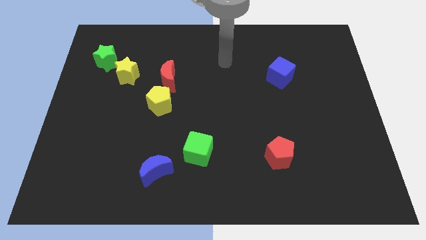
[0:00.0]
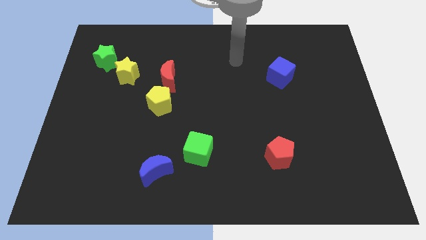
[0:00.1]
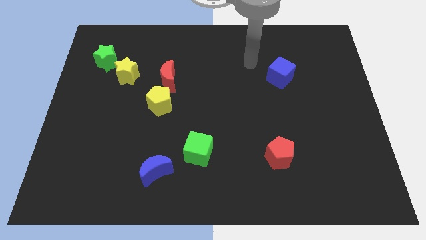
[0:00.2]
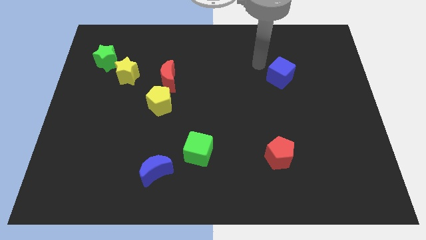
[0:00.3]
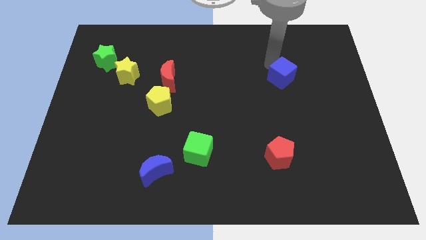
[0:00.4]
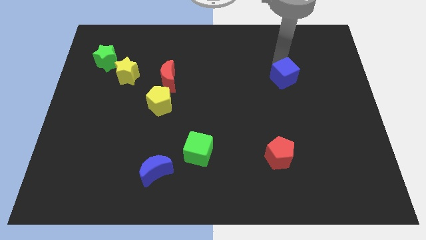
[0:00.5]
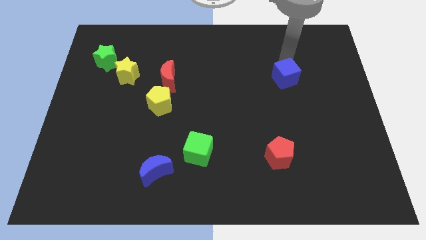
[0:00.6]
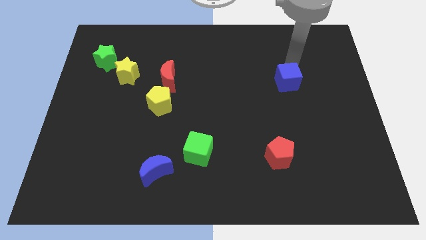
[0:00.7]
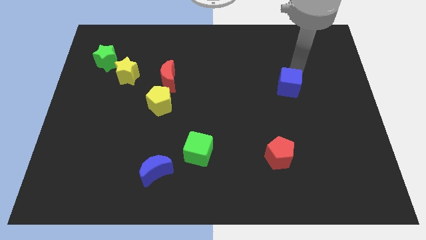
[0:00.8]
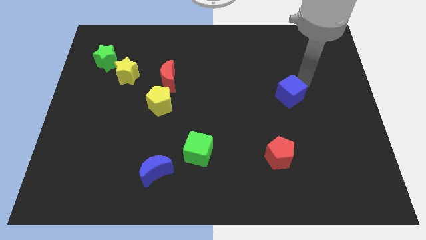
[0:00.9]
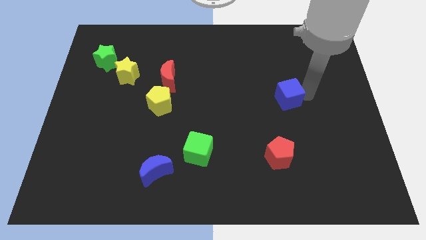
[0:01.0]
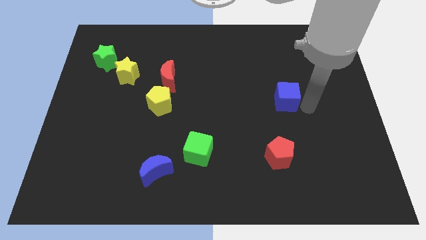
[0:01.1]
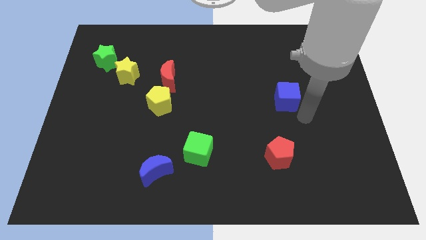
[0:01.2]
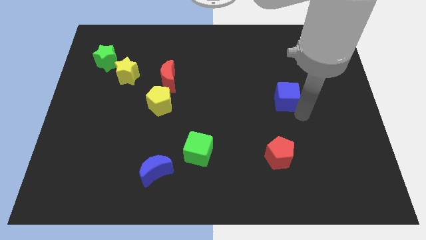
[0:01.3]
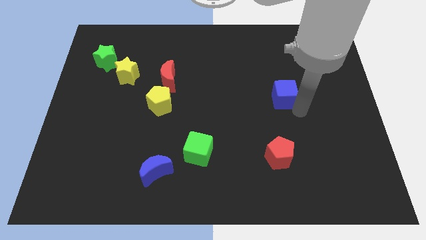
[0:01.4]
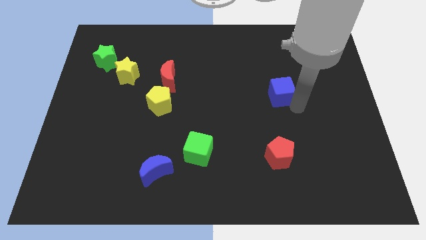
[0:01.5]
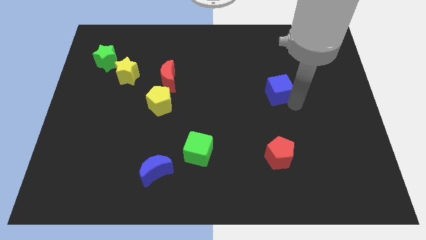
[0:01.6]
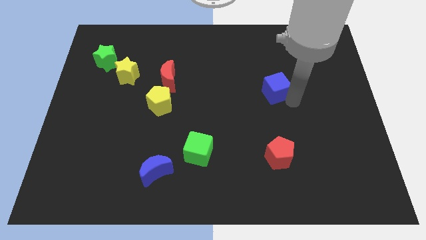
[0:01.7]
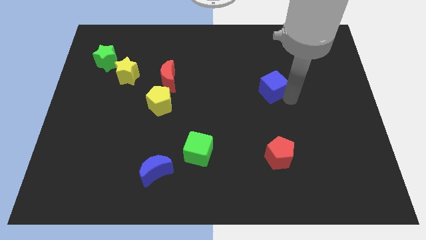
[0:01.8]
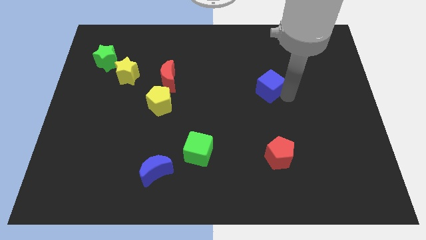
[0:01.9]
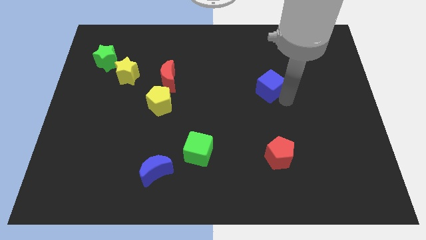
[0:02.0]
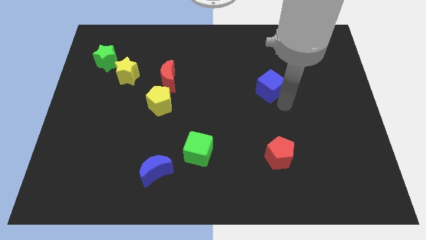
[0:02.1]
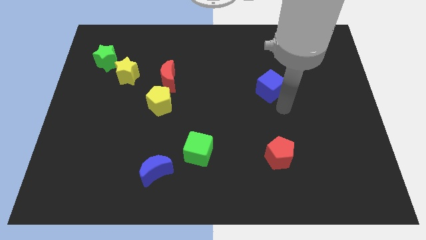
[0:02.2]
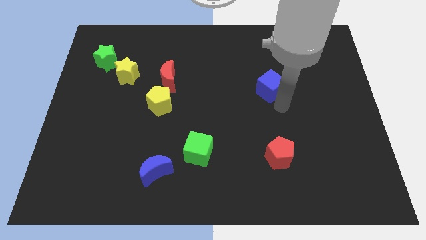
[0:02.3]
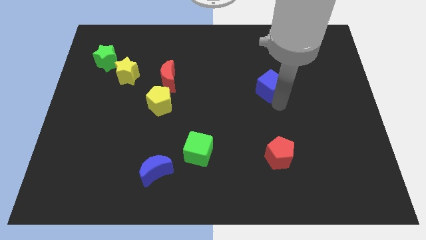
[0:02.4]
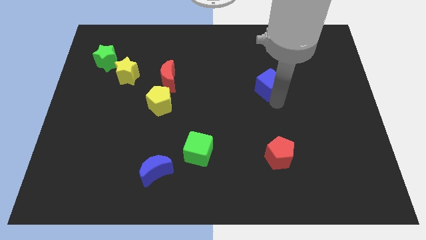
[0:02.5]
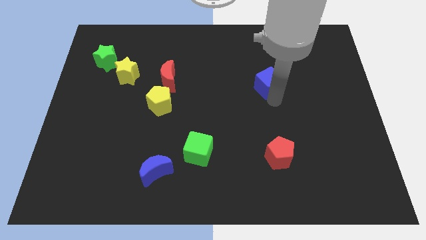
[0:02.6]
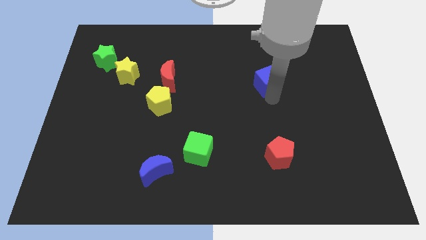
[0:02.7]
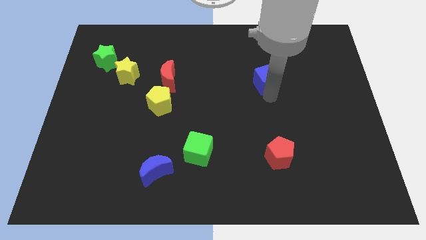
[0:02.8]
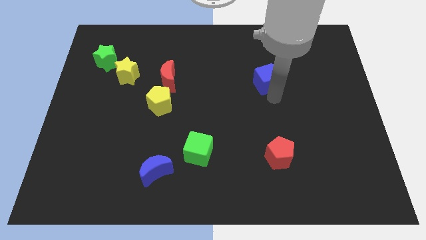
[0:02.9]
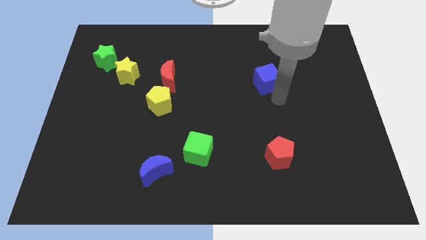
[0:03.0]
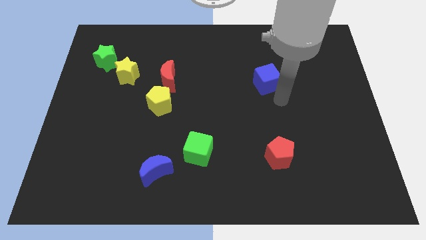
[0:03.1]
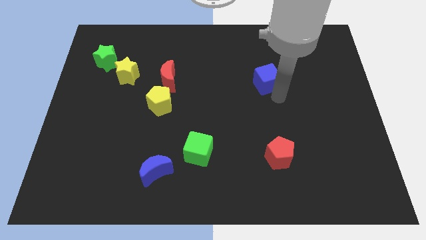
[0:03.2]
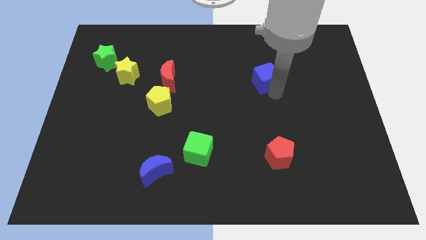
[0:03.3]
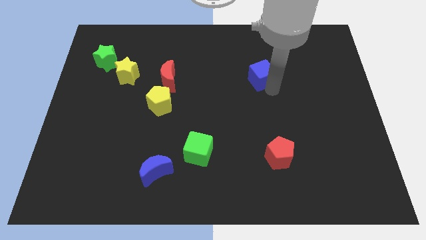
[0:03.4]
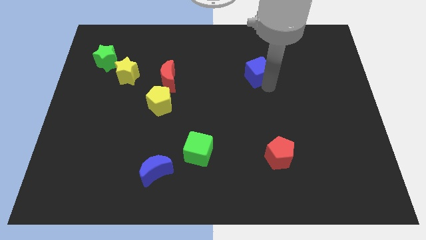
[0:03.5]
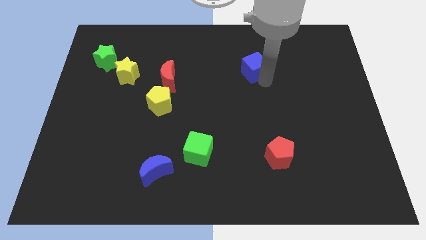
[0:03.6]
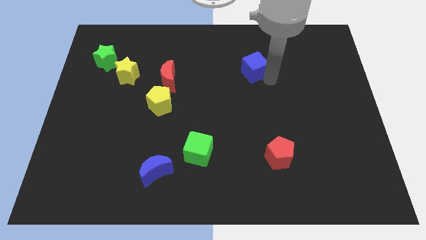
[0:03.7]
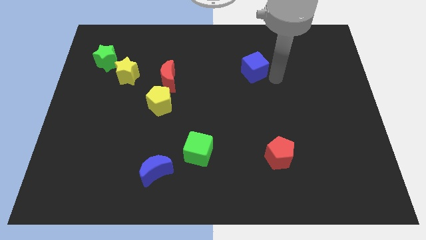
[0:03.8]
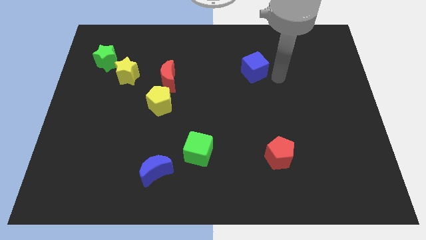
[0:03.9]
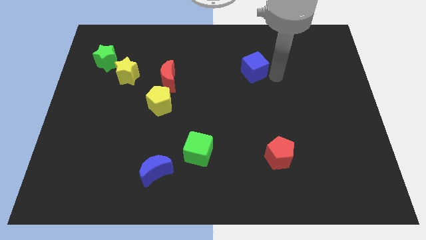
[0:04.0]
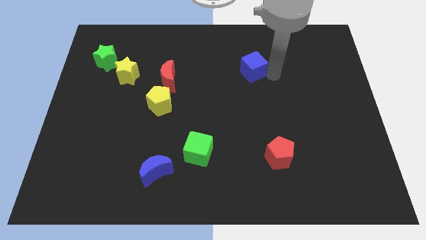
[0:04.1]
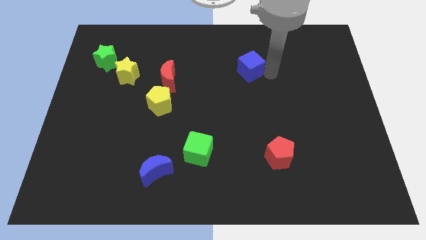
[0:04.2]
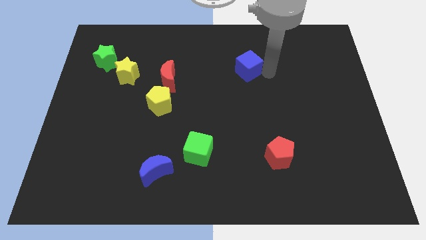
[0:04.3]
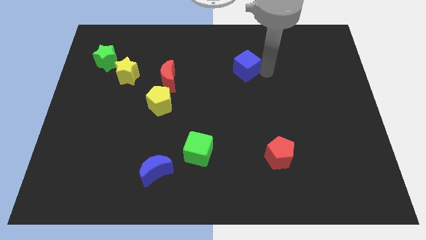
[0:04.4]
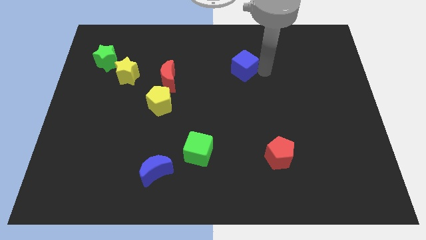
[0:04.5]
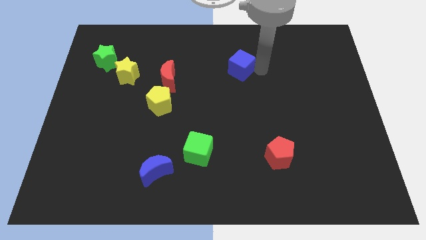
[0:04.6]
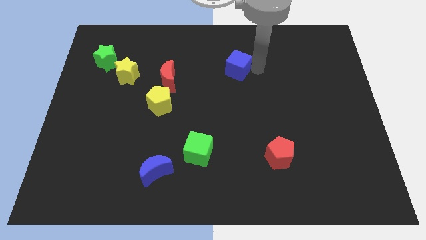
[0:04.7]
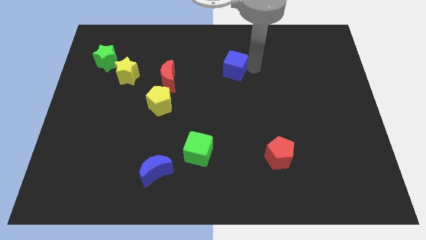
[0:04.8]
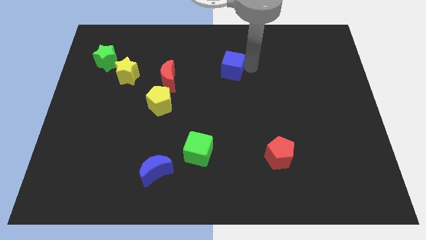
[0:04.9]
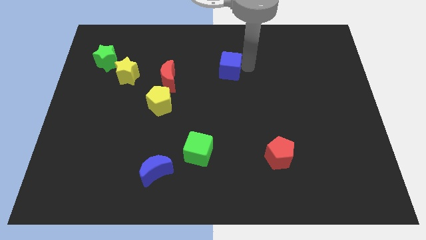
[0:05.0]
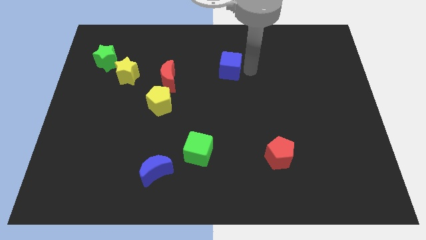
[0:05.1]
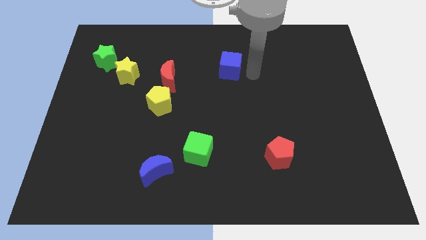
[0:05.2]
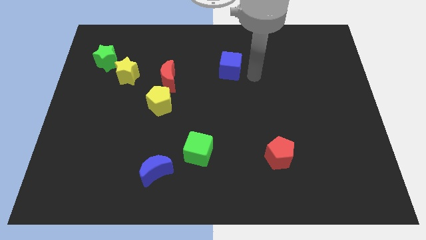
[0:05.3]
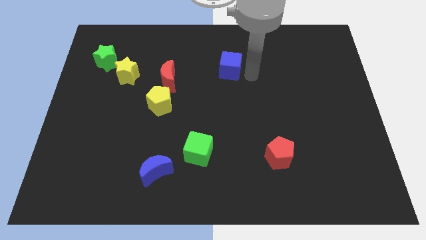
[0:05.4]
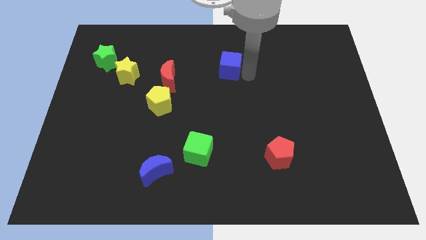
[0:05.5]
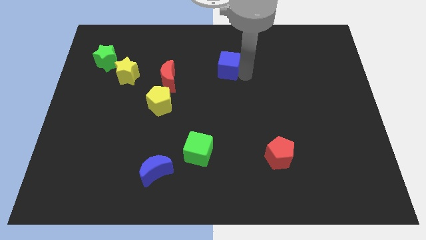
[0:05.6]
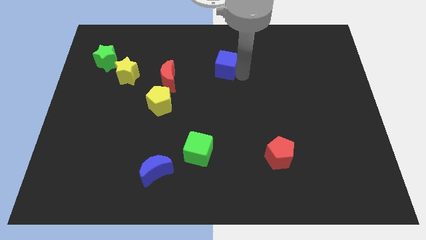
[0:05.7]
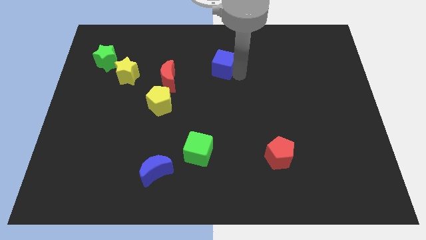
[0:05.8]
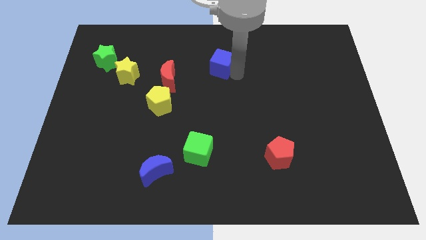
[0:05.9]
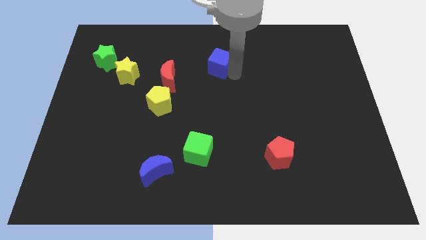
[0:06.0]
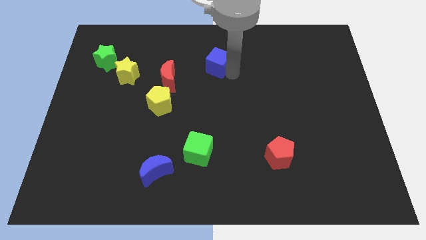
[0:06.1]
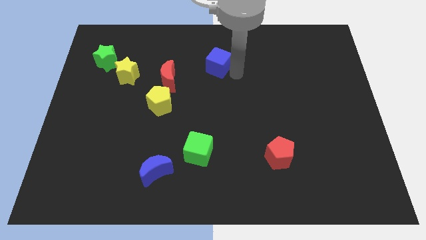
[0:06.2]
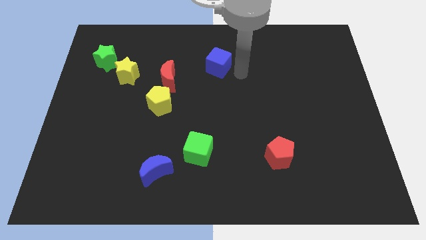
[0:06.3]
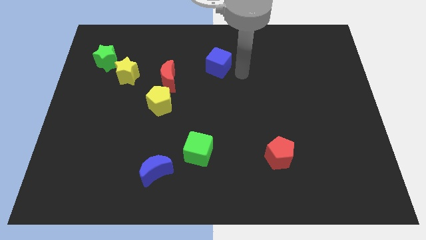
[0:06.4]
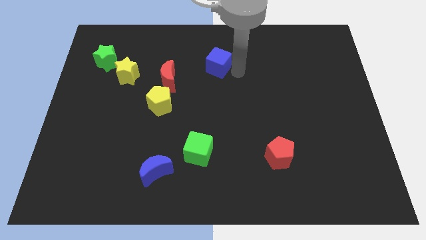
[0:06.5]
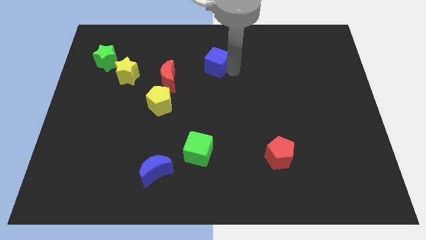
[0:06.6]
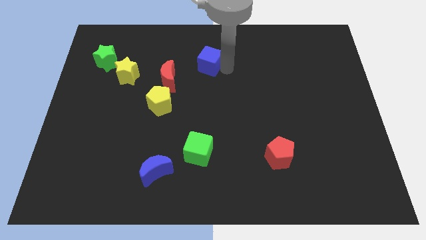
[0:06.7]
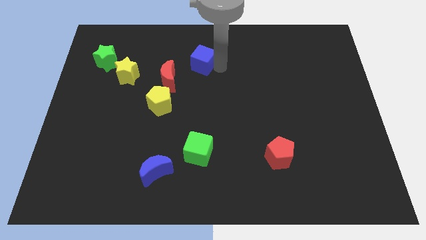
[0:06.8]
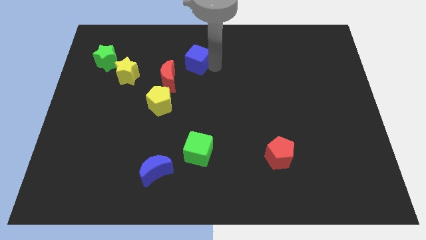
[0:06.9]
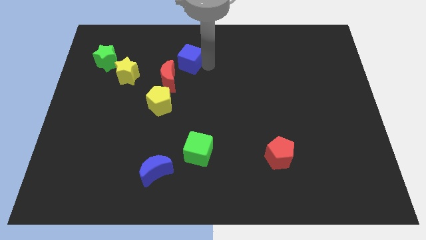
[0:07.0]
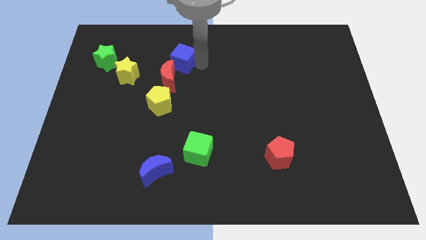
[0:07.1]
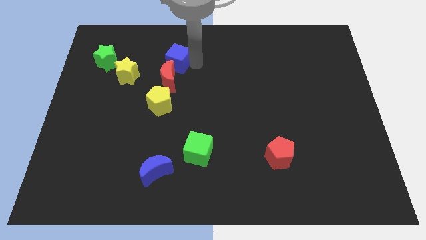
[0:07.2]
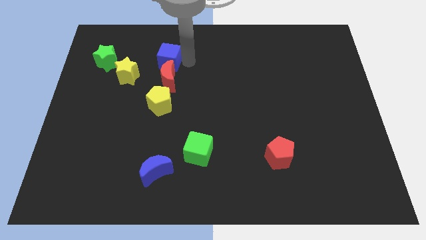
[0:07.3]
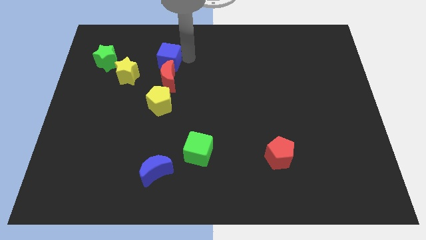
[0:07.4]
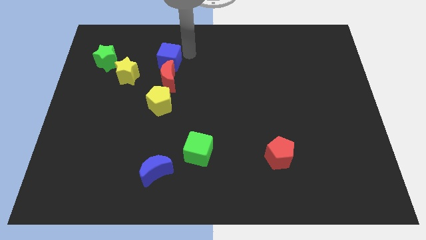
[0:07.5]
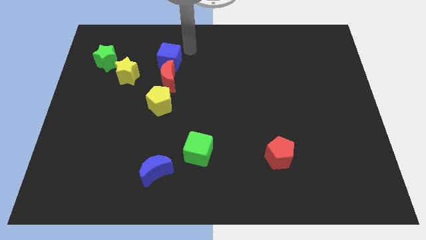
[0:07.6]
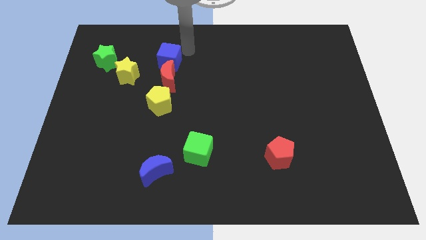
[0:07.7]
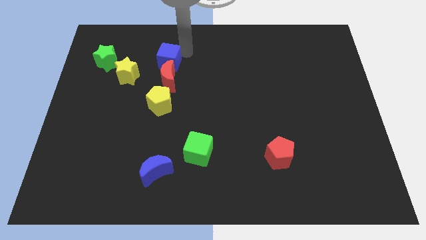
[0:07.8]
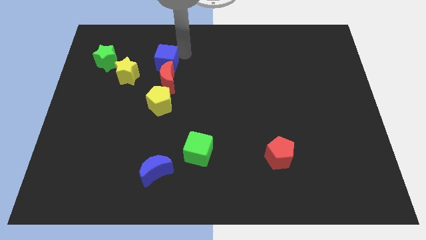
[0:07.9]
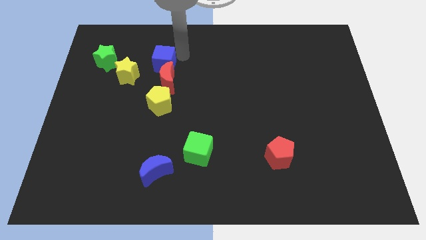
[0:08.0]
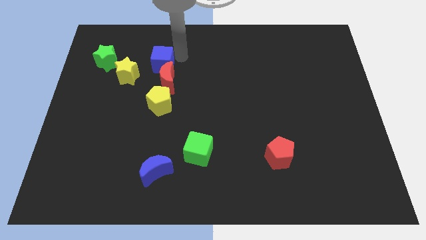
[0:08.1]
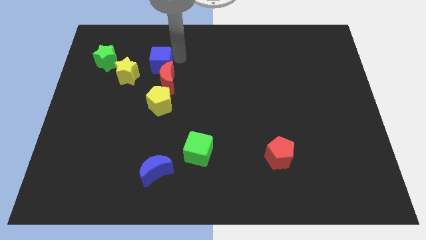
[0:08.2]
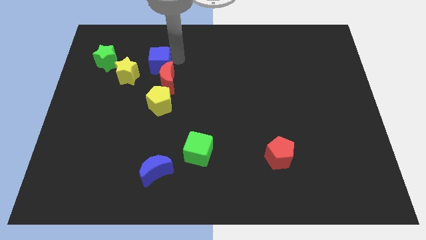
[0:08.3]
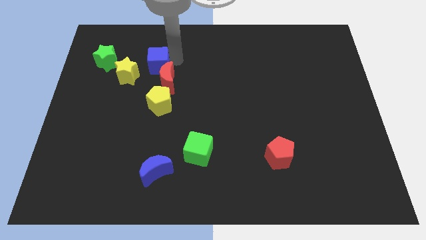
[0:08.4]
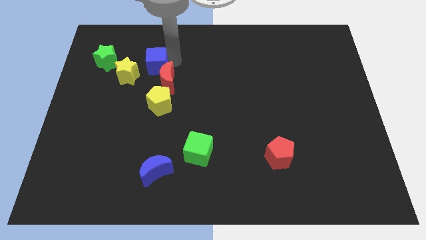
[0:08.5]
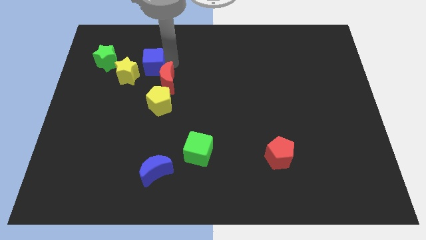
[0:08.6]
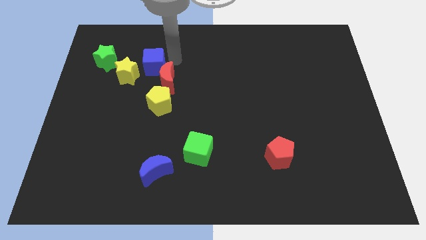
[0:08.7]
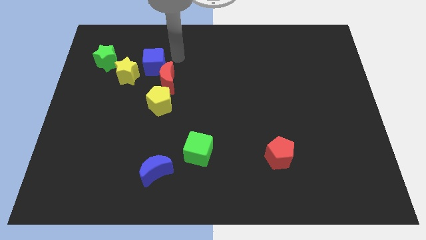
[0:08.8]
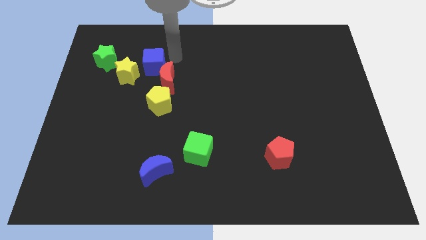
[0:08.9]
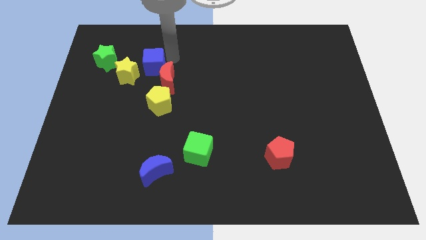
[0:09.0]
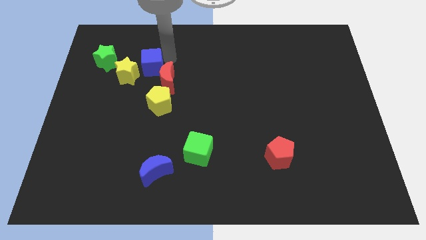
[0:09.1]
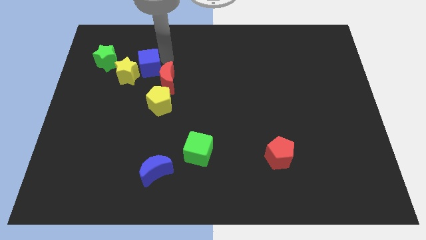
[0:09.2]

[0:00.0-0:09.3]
move the blue cube to the yellow star
